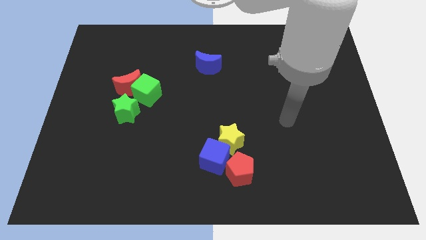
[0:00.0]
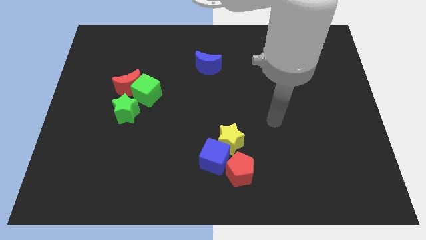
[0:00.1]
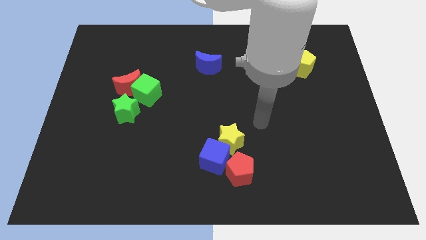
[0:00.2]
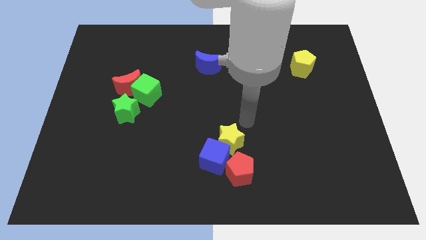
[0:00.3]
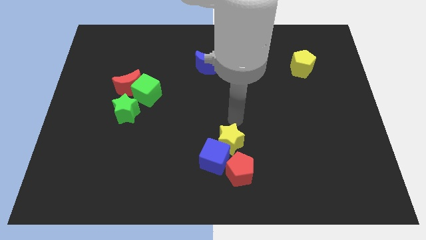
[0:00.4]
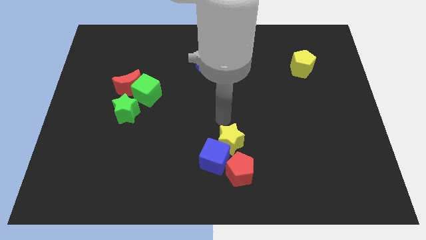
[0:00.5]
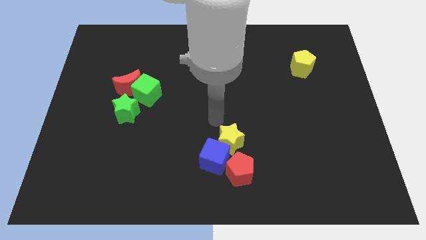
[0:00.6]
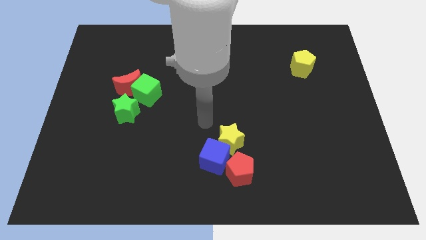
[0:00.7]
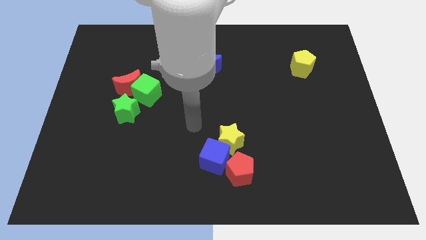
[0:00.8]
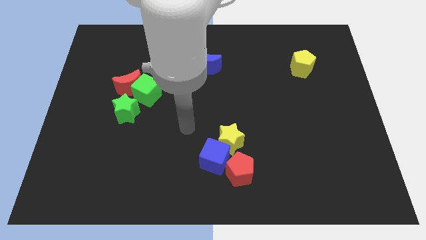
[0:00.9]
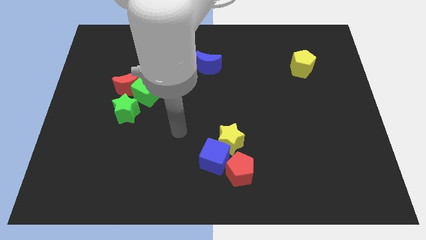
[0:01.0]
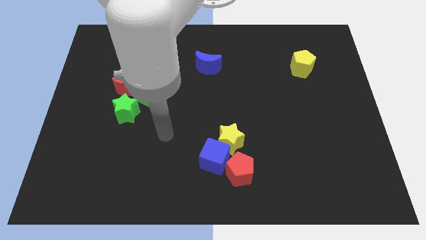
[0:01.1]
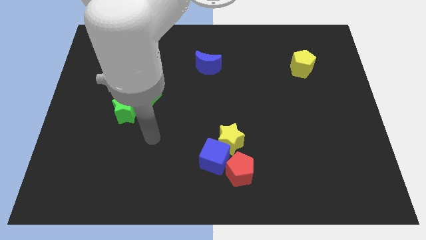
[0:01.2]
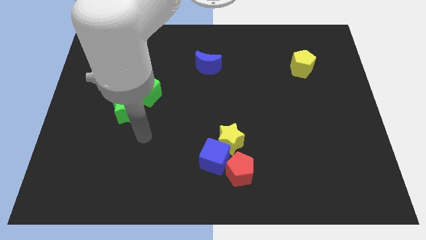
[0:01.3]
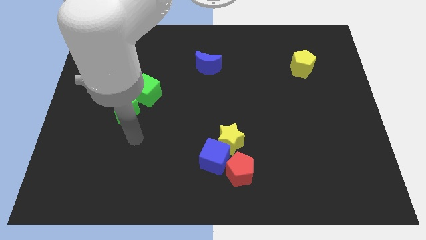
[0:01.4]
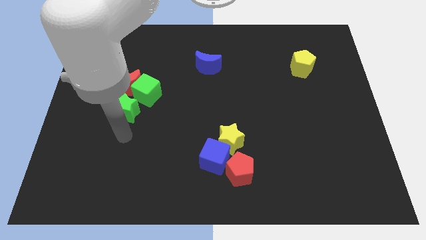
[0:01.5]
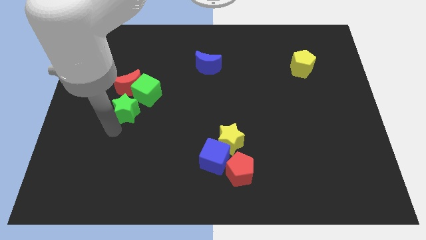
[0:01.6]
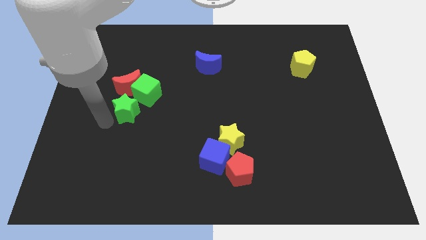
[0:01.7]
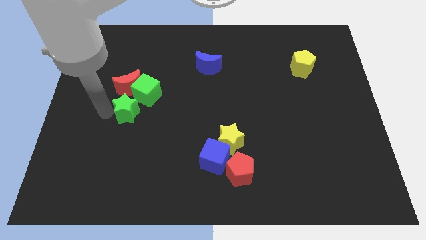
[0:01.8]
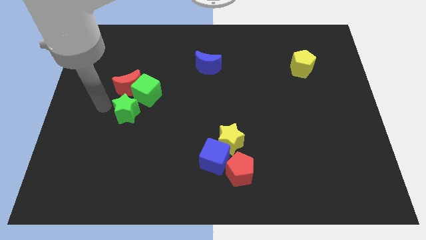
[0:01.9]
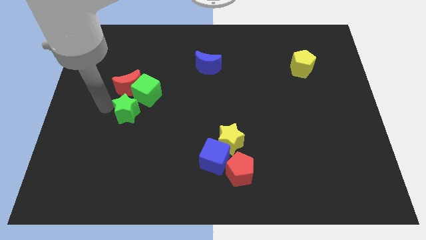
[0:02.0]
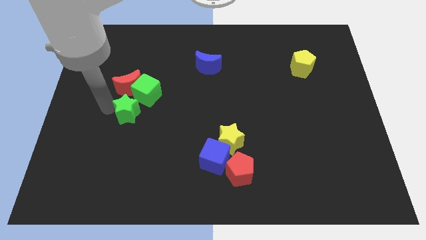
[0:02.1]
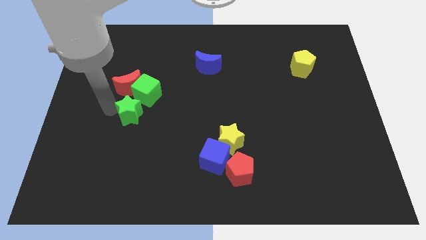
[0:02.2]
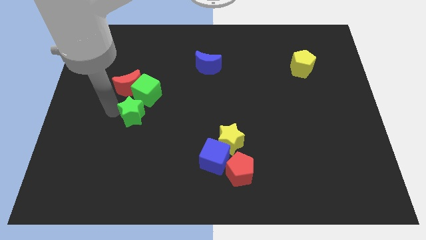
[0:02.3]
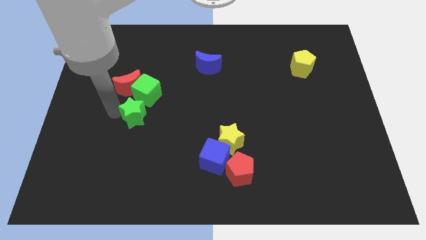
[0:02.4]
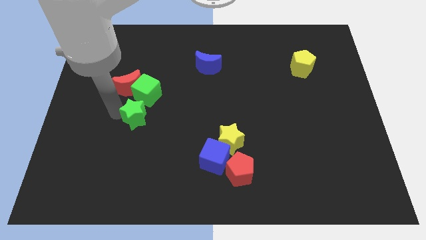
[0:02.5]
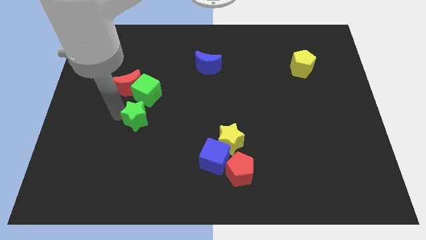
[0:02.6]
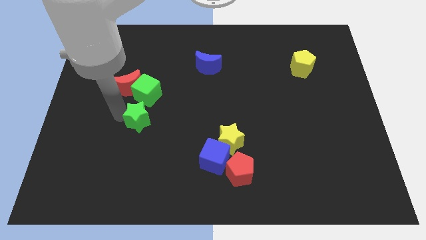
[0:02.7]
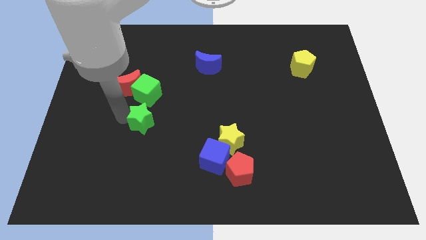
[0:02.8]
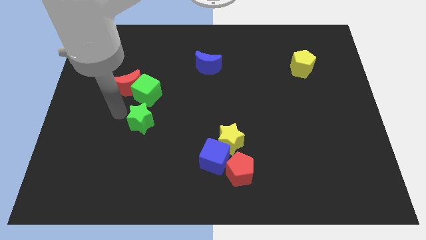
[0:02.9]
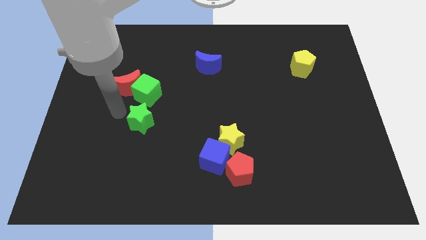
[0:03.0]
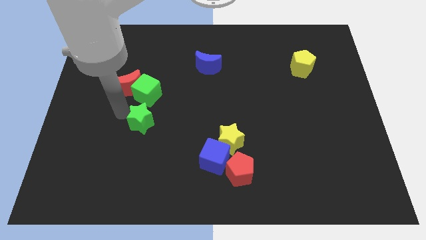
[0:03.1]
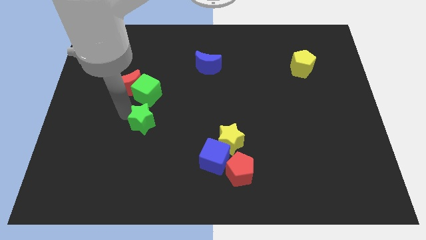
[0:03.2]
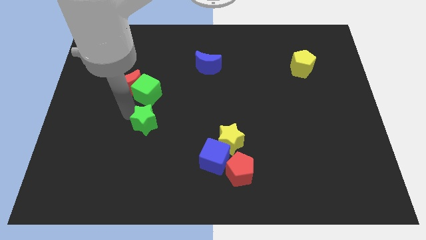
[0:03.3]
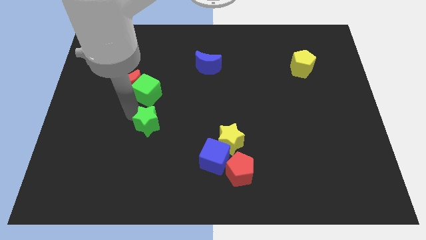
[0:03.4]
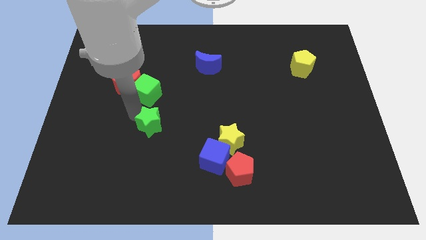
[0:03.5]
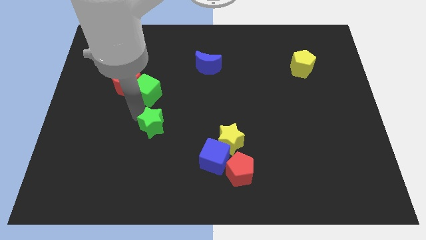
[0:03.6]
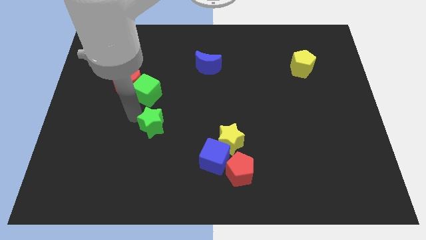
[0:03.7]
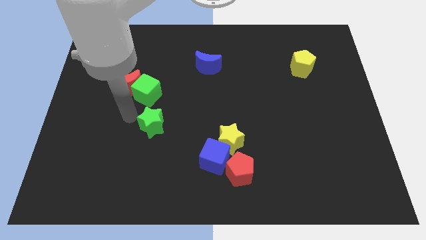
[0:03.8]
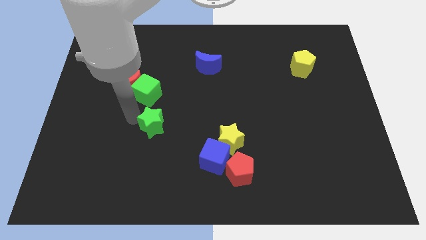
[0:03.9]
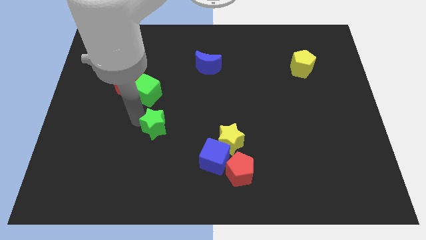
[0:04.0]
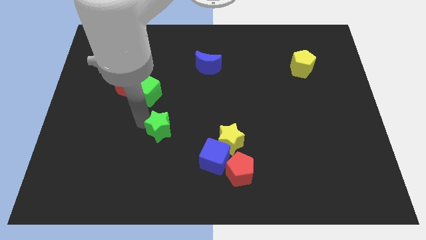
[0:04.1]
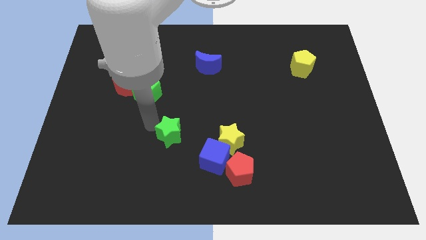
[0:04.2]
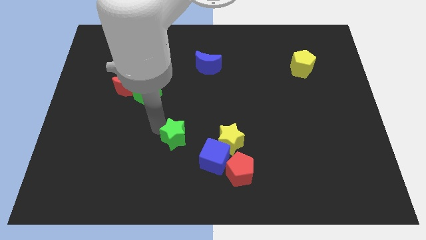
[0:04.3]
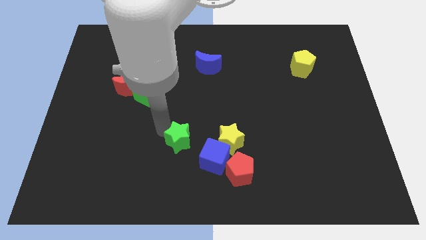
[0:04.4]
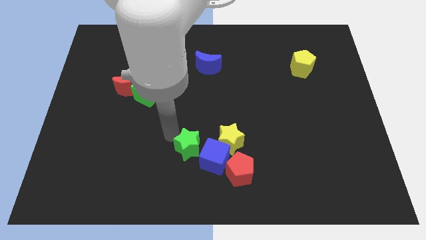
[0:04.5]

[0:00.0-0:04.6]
move the green star close to the blue cube

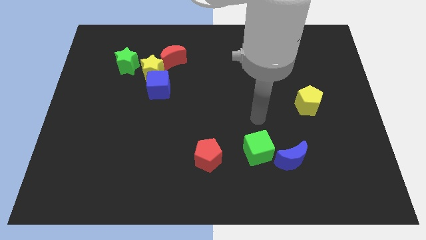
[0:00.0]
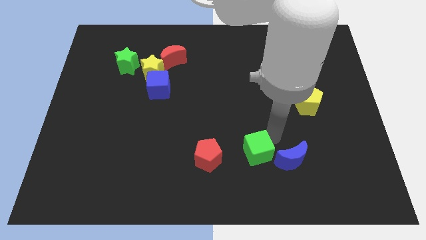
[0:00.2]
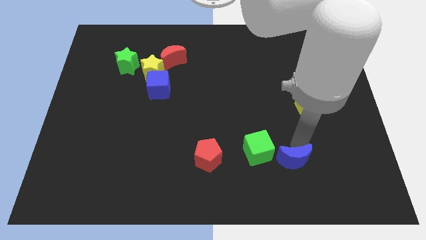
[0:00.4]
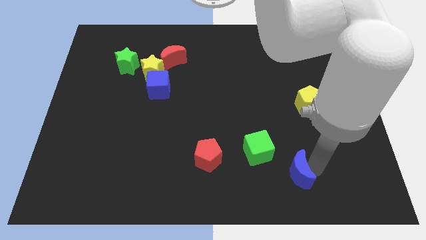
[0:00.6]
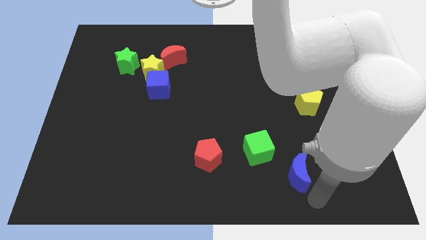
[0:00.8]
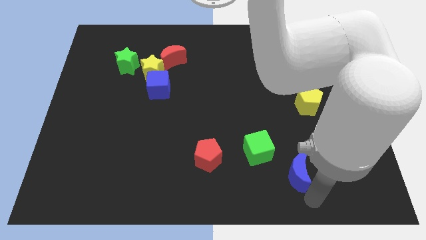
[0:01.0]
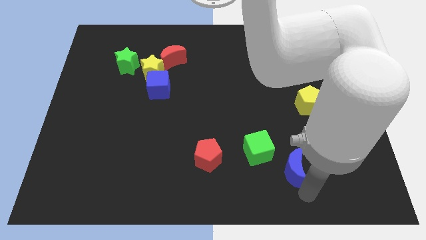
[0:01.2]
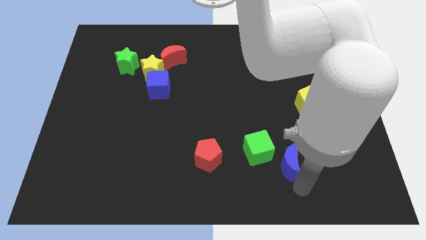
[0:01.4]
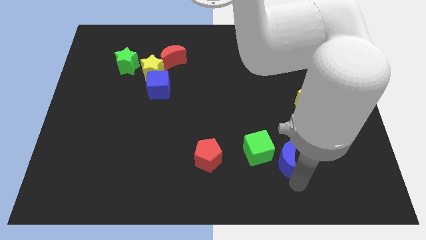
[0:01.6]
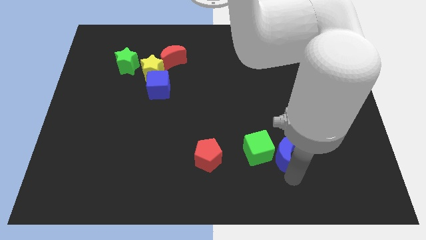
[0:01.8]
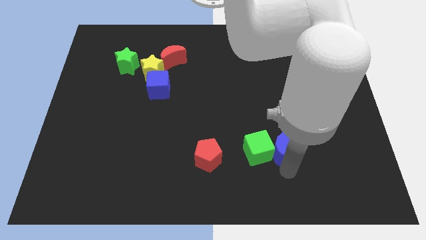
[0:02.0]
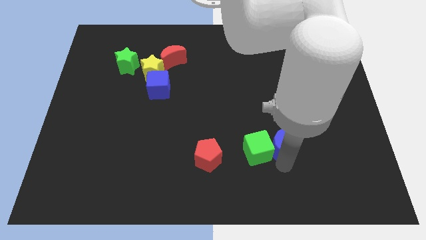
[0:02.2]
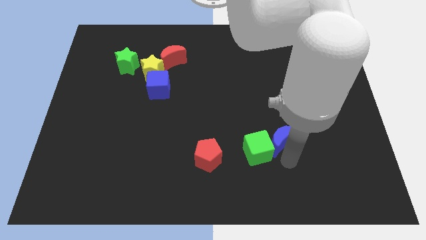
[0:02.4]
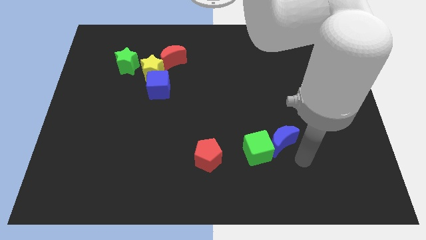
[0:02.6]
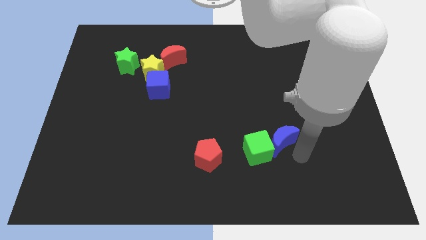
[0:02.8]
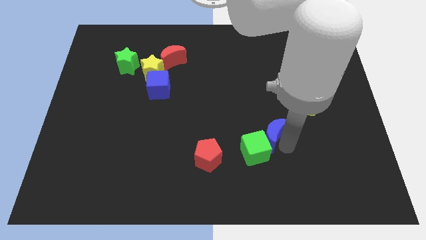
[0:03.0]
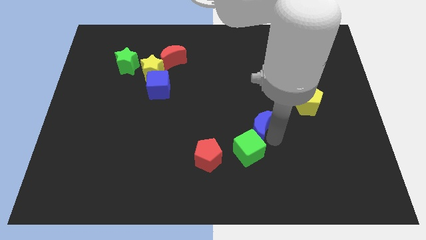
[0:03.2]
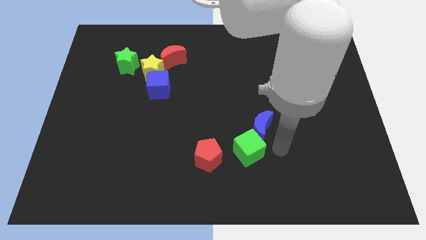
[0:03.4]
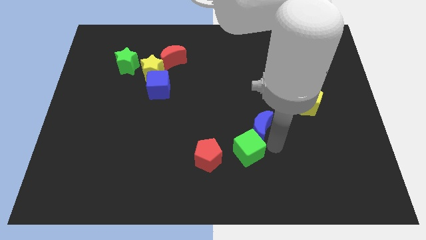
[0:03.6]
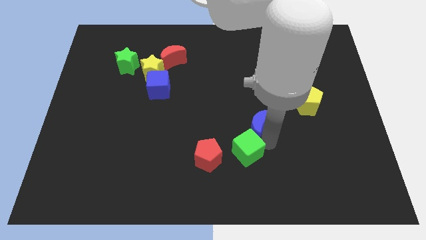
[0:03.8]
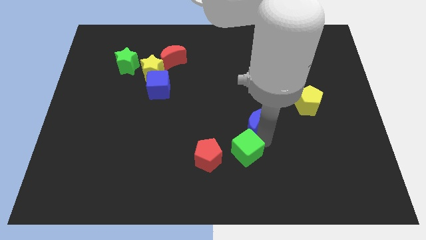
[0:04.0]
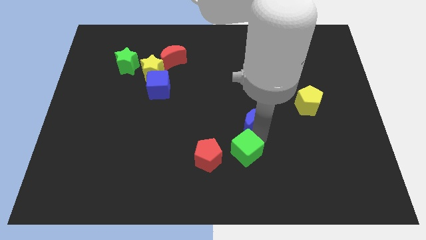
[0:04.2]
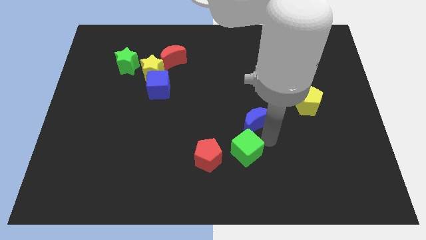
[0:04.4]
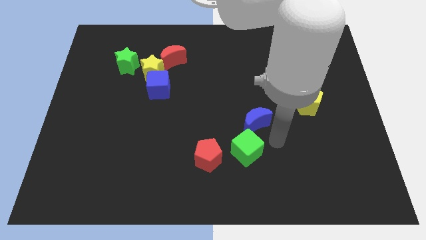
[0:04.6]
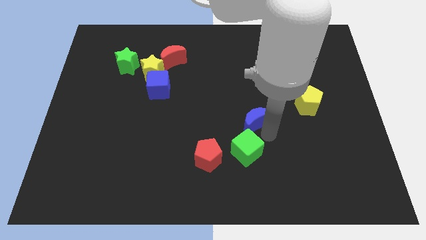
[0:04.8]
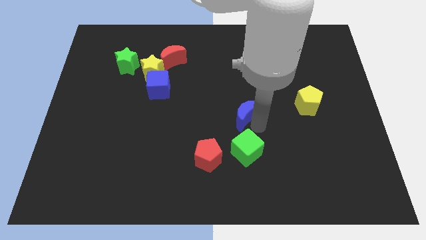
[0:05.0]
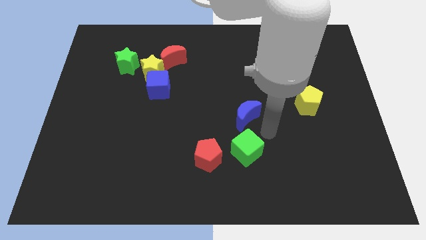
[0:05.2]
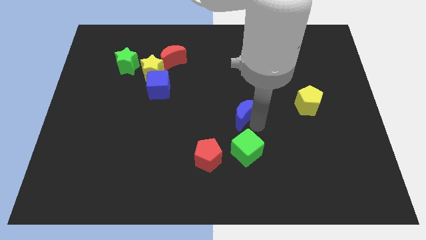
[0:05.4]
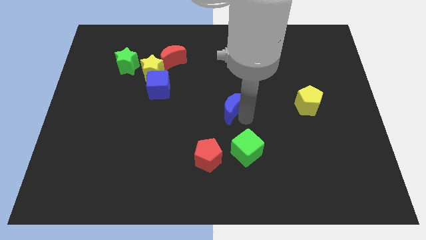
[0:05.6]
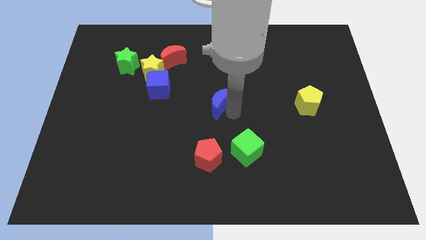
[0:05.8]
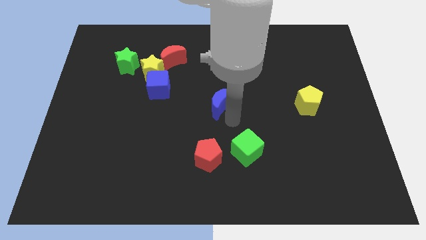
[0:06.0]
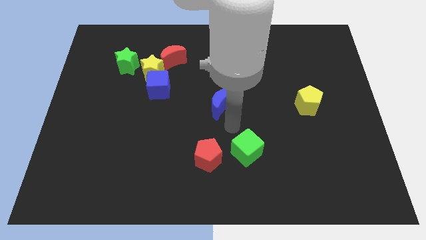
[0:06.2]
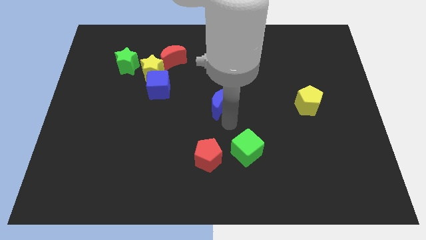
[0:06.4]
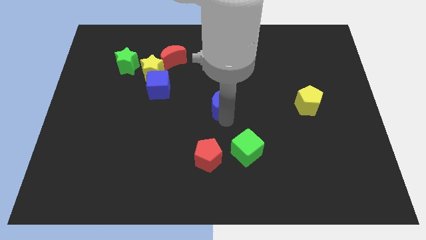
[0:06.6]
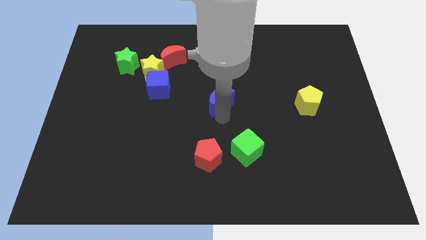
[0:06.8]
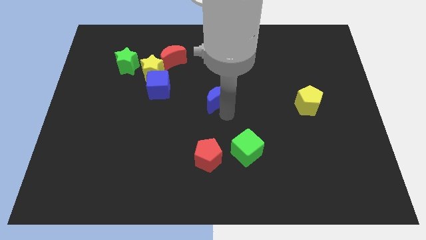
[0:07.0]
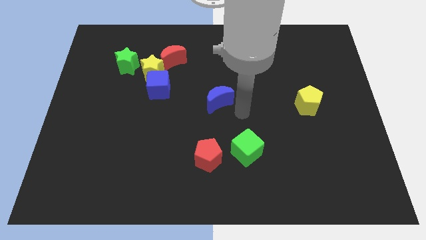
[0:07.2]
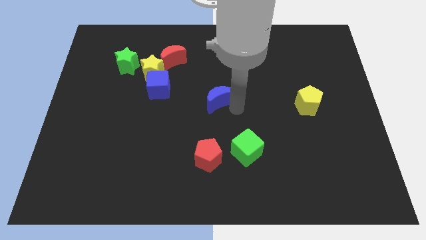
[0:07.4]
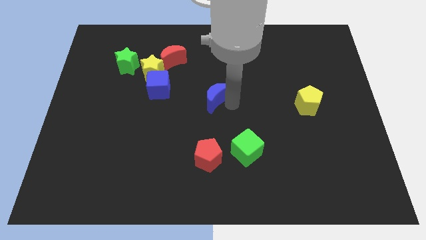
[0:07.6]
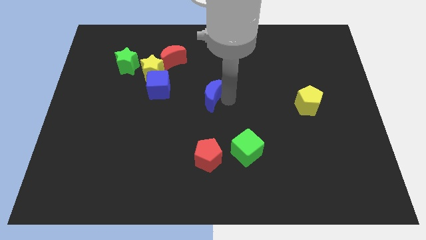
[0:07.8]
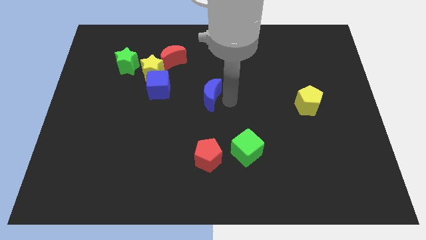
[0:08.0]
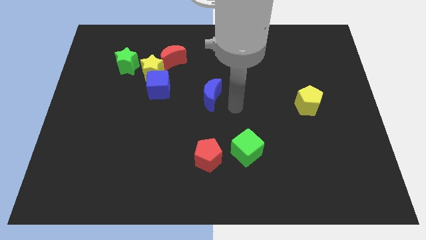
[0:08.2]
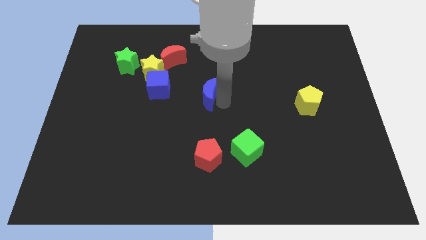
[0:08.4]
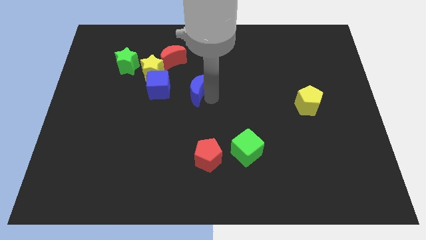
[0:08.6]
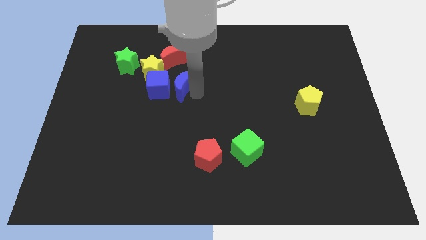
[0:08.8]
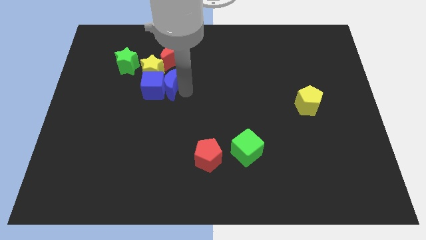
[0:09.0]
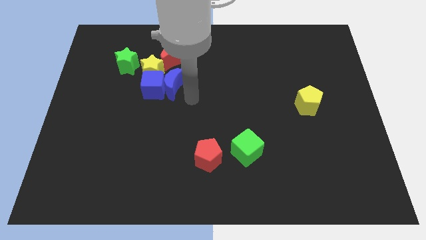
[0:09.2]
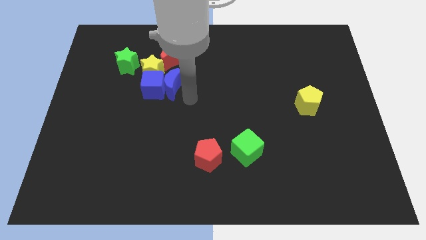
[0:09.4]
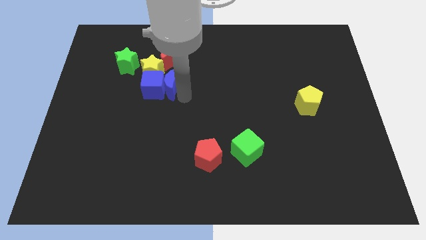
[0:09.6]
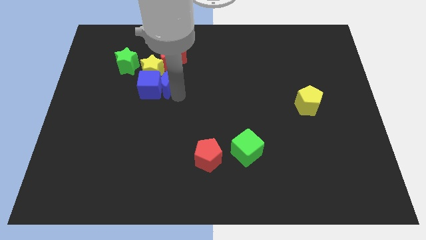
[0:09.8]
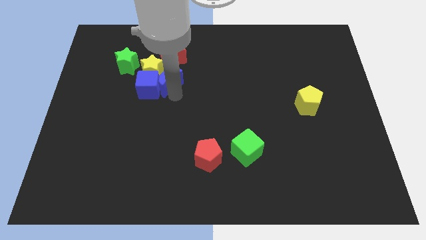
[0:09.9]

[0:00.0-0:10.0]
move the blue moon next to the yellow star
